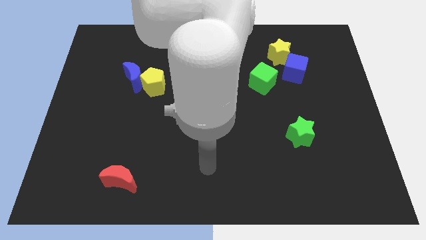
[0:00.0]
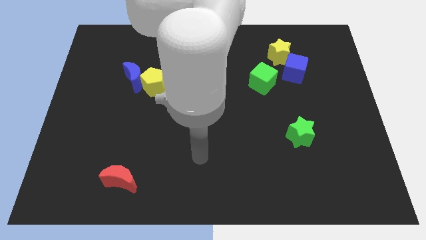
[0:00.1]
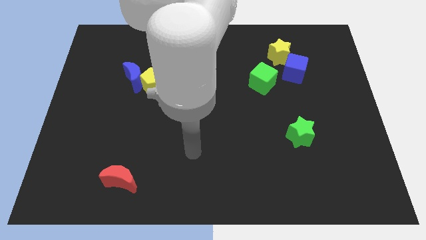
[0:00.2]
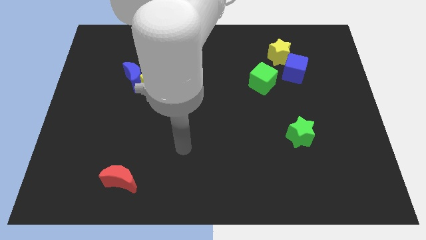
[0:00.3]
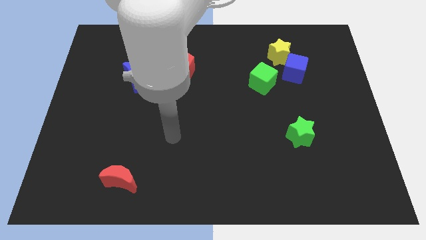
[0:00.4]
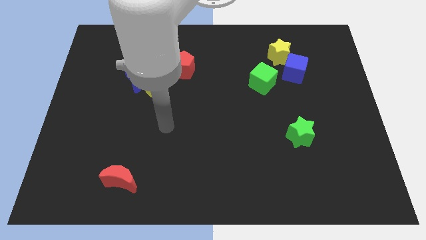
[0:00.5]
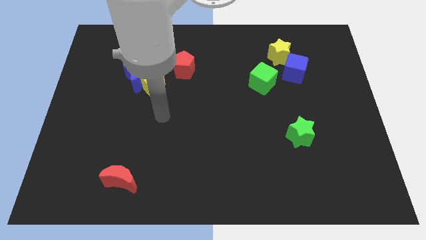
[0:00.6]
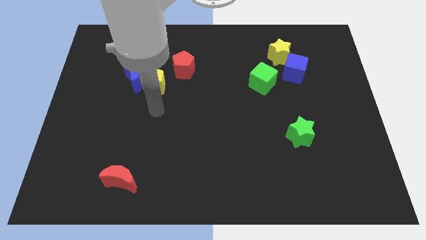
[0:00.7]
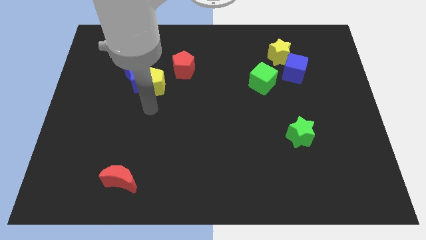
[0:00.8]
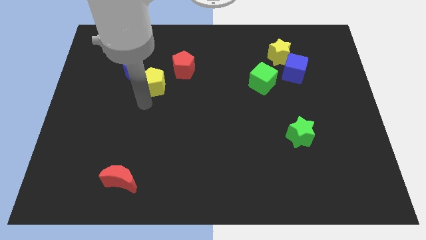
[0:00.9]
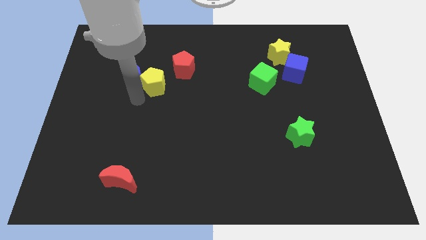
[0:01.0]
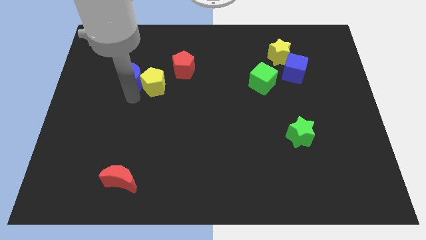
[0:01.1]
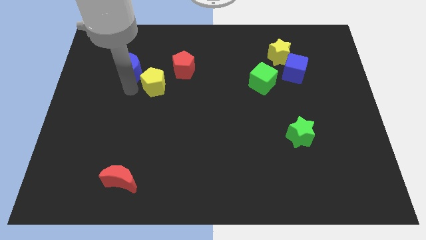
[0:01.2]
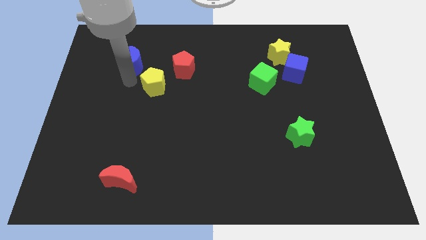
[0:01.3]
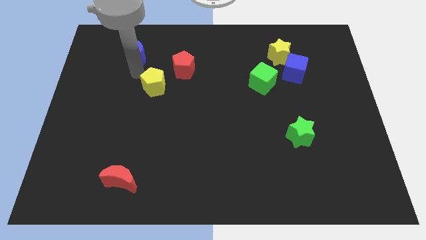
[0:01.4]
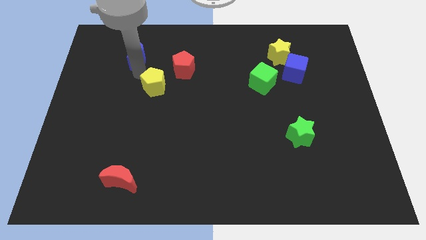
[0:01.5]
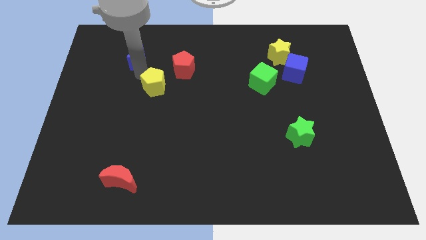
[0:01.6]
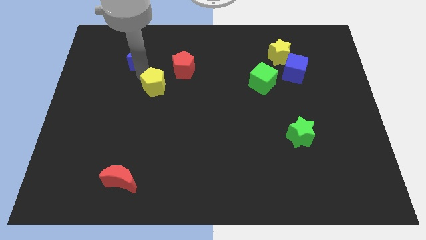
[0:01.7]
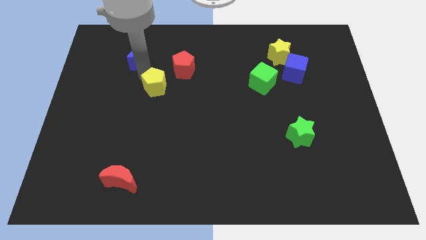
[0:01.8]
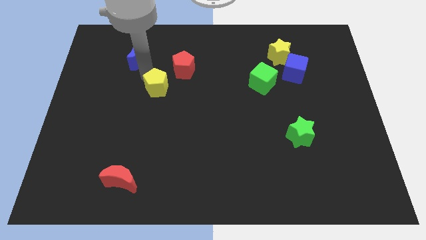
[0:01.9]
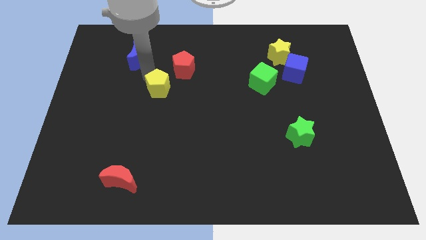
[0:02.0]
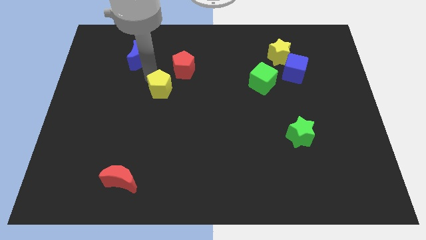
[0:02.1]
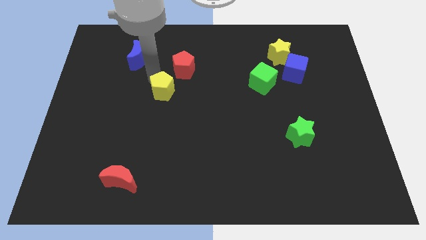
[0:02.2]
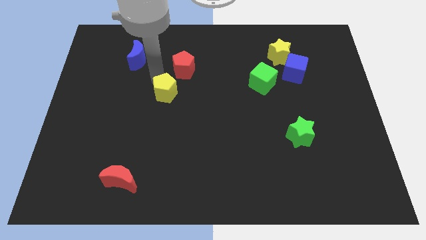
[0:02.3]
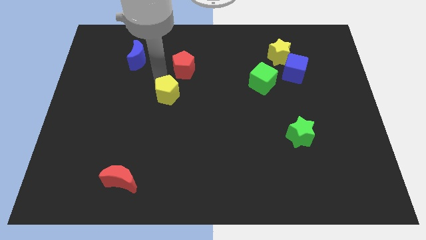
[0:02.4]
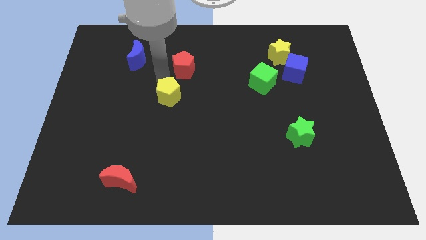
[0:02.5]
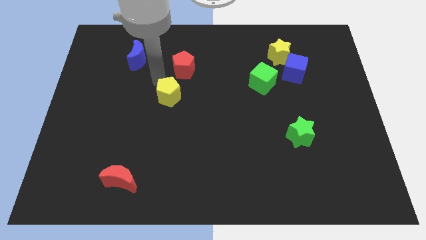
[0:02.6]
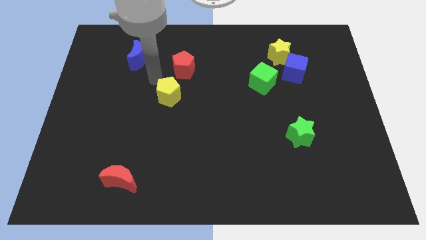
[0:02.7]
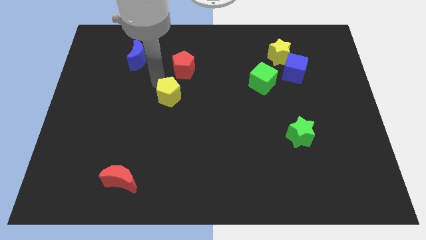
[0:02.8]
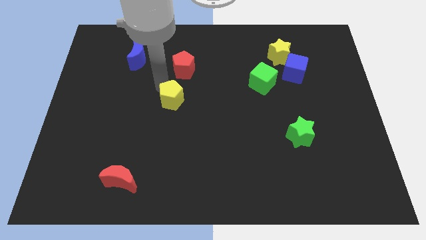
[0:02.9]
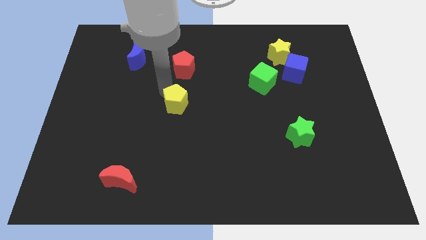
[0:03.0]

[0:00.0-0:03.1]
move the yellow pentagon downwards and to the right diagonally a little bit

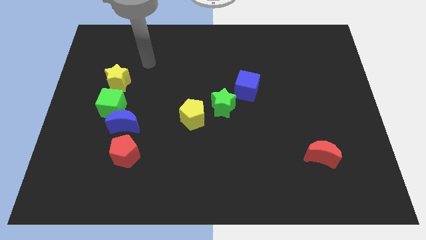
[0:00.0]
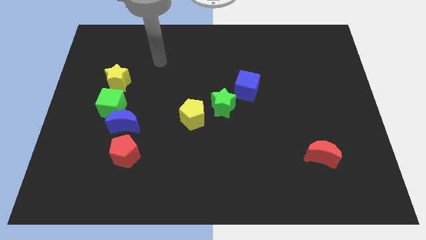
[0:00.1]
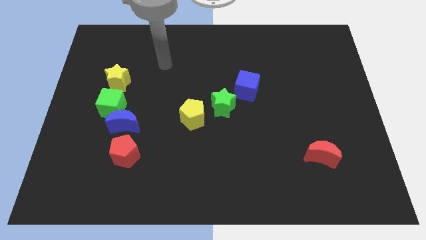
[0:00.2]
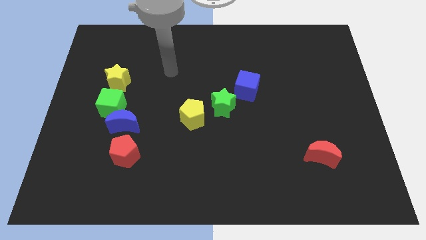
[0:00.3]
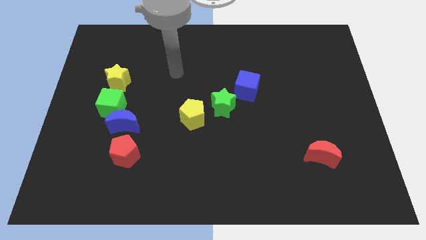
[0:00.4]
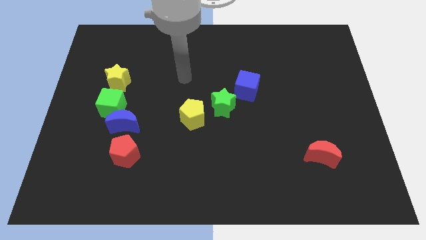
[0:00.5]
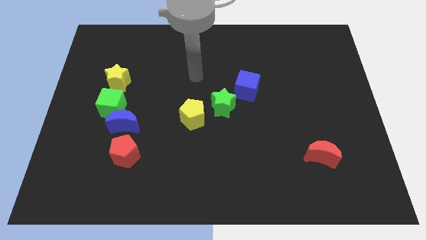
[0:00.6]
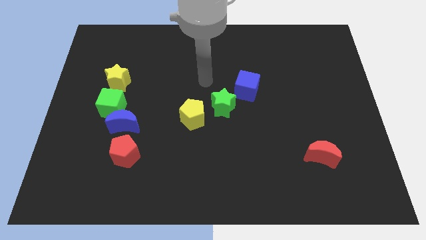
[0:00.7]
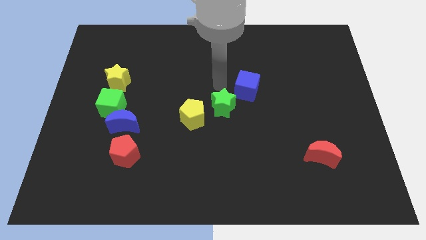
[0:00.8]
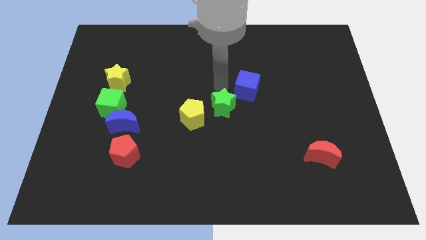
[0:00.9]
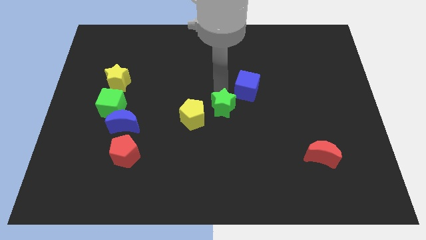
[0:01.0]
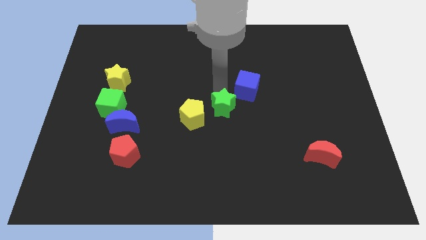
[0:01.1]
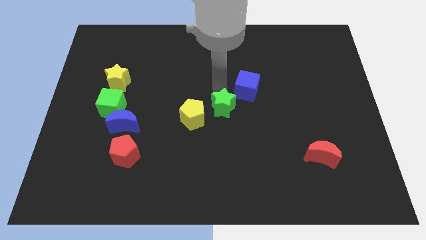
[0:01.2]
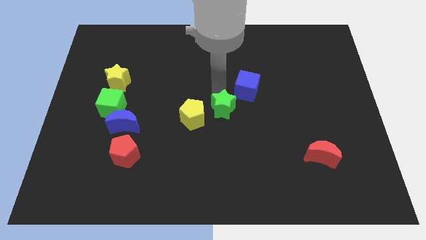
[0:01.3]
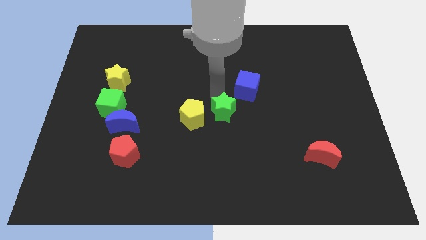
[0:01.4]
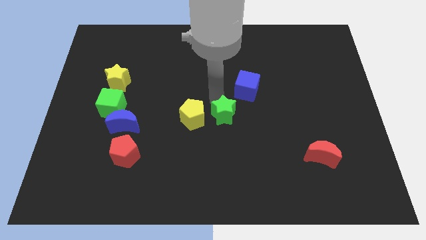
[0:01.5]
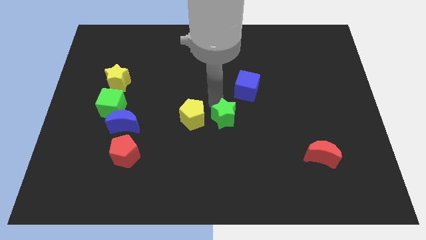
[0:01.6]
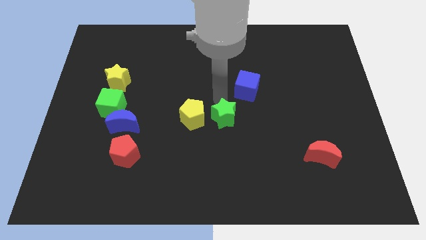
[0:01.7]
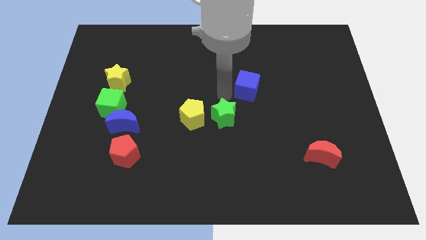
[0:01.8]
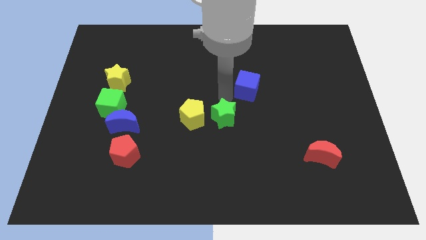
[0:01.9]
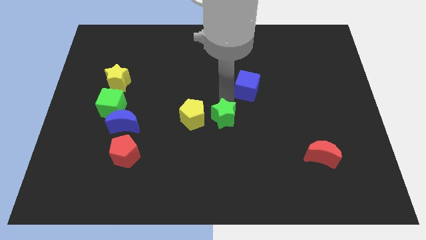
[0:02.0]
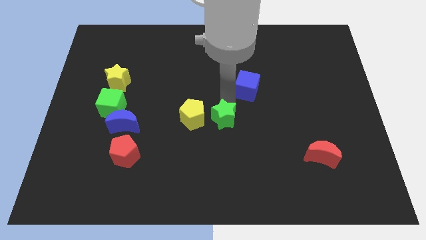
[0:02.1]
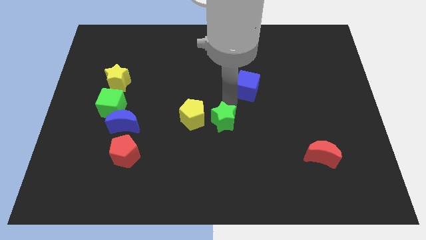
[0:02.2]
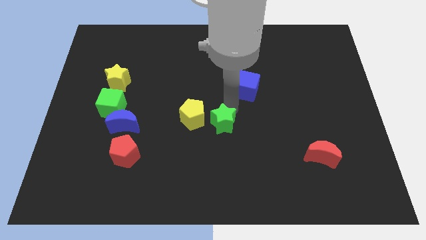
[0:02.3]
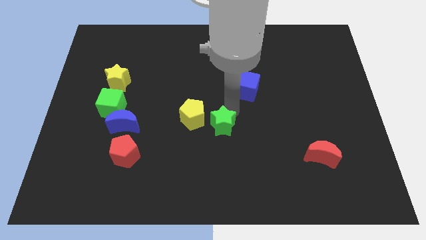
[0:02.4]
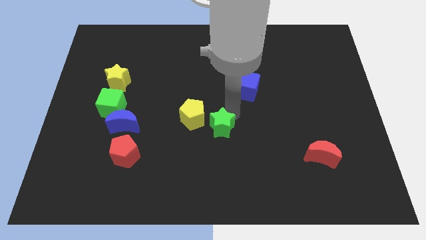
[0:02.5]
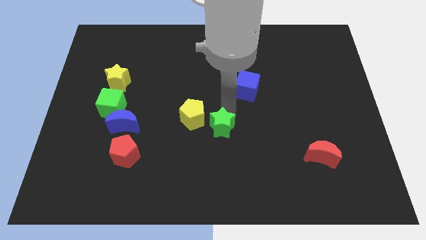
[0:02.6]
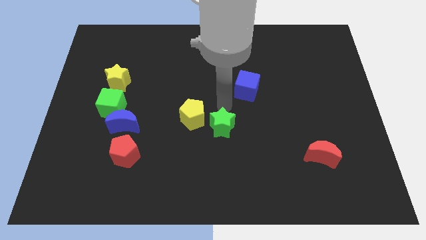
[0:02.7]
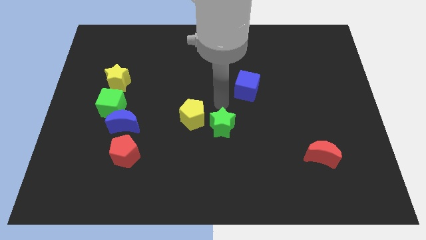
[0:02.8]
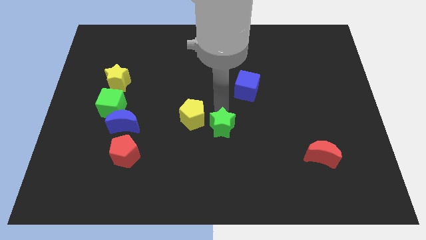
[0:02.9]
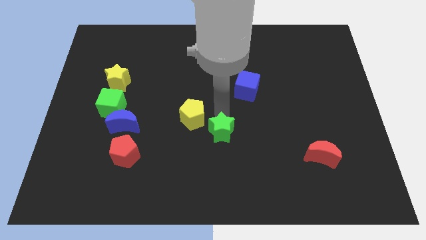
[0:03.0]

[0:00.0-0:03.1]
move the green star down slightly

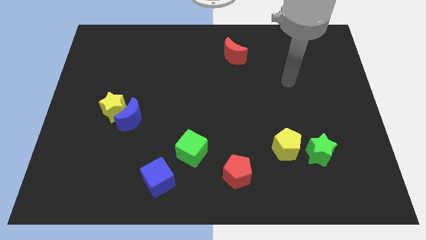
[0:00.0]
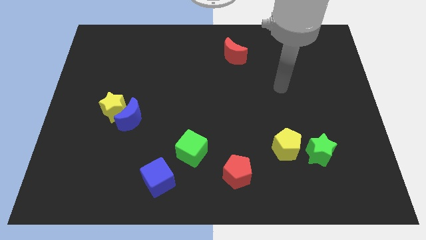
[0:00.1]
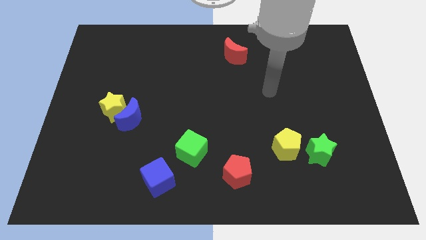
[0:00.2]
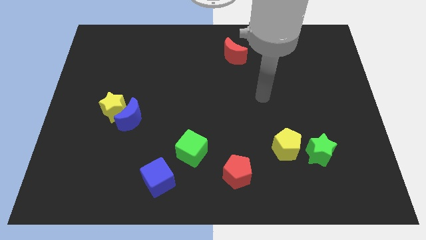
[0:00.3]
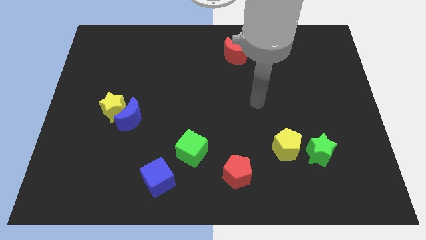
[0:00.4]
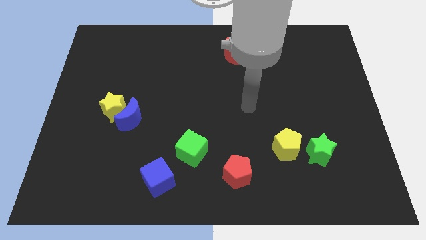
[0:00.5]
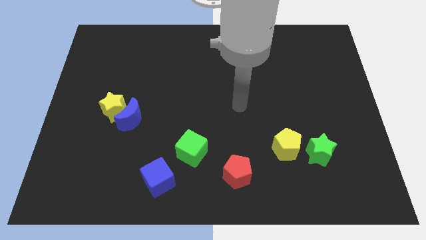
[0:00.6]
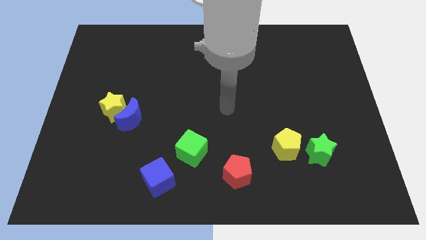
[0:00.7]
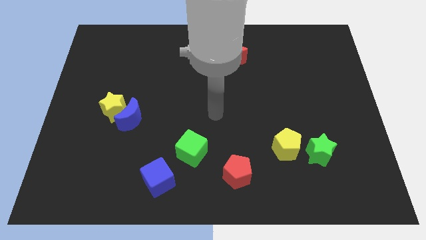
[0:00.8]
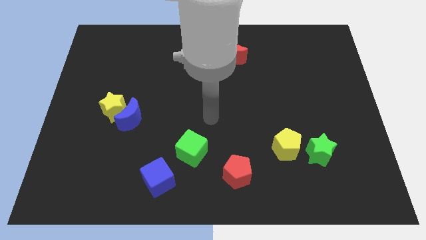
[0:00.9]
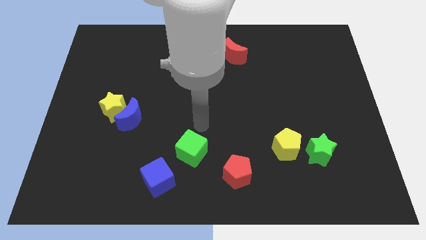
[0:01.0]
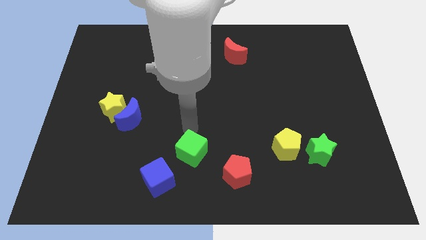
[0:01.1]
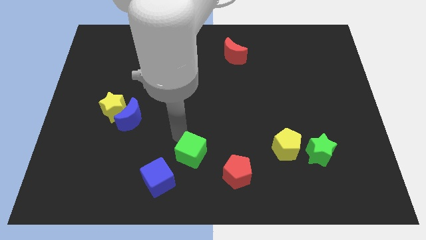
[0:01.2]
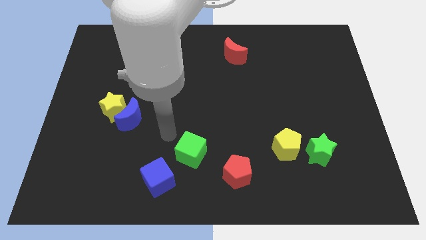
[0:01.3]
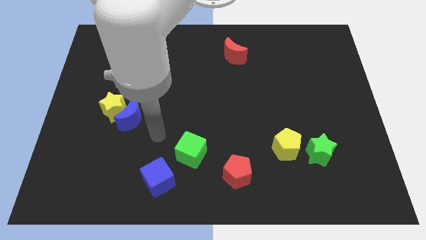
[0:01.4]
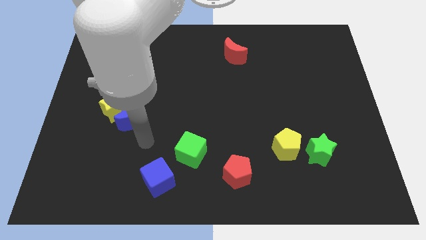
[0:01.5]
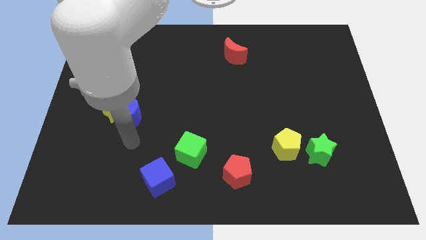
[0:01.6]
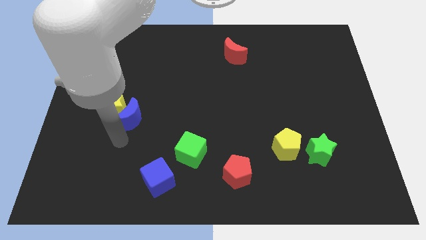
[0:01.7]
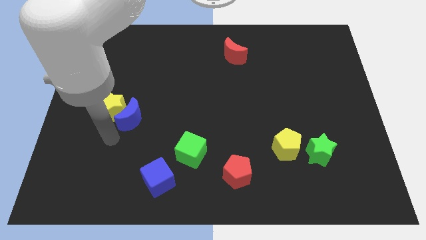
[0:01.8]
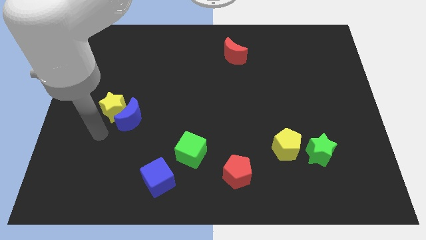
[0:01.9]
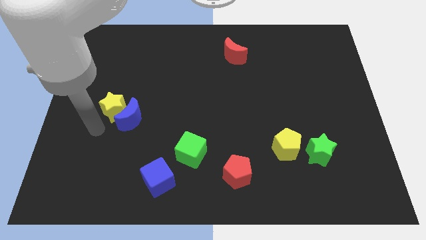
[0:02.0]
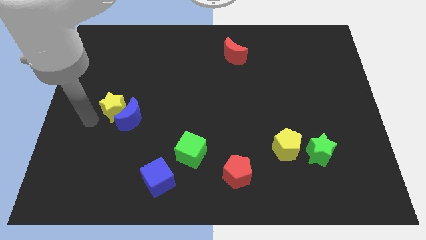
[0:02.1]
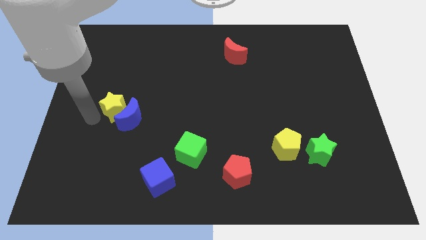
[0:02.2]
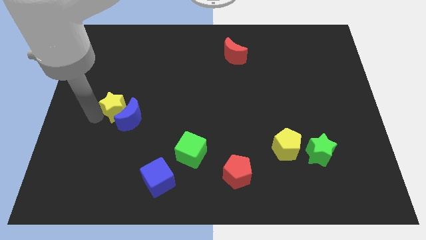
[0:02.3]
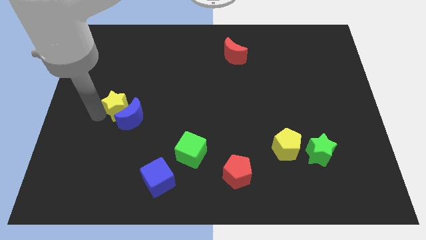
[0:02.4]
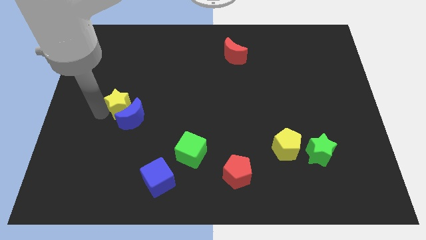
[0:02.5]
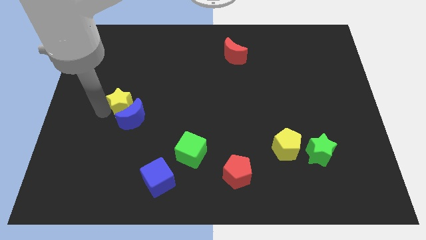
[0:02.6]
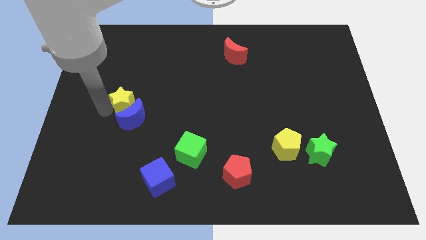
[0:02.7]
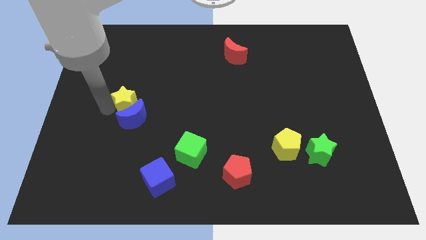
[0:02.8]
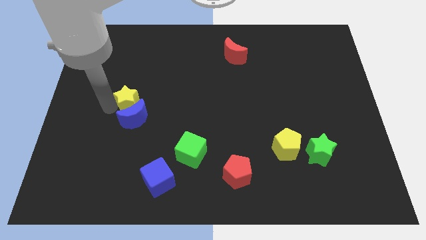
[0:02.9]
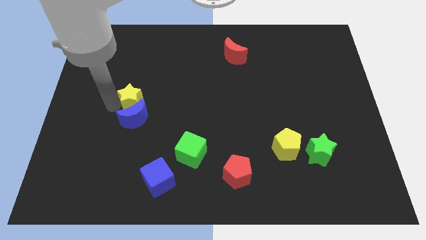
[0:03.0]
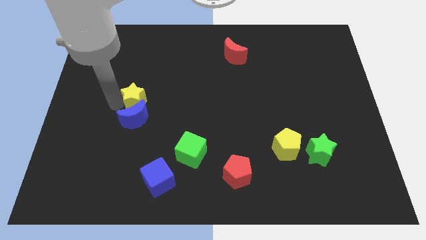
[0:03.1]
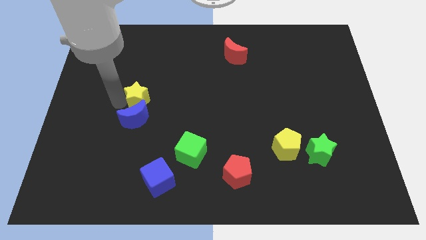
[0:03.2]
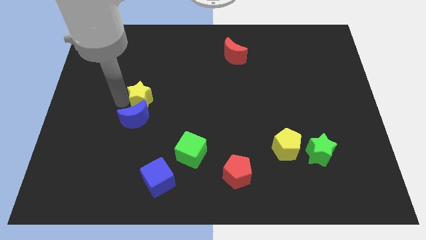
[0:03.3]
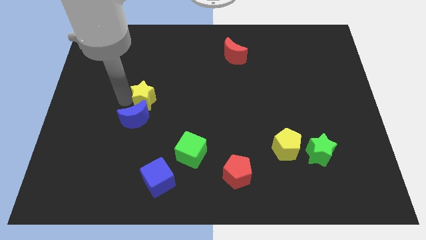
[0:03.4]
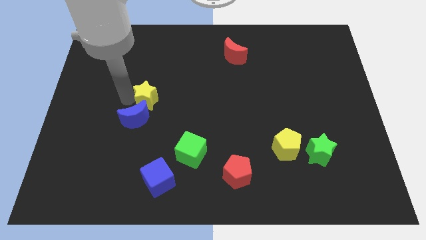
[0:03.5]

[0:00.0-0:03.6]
slide the yellow star somewhat to the right
